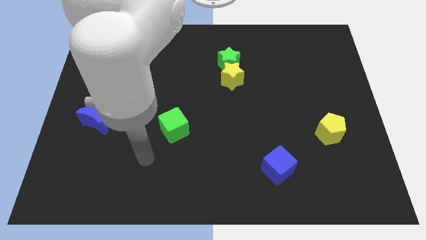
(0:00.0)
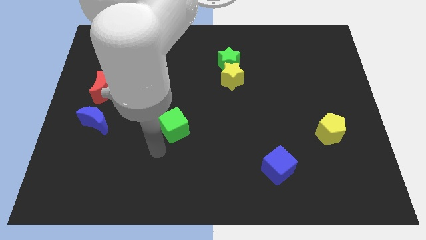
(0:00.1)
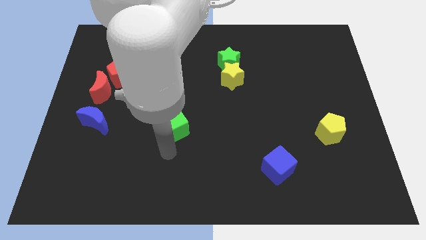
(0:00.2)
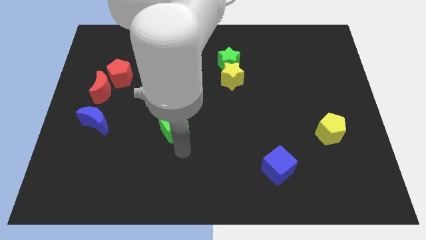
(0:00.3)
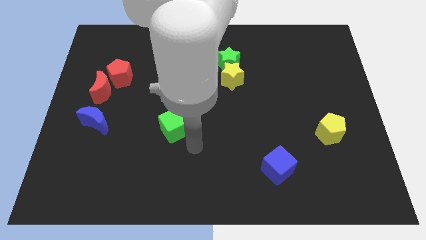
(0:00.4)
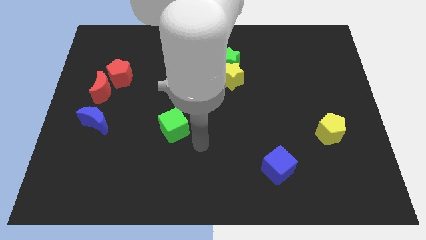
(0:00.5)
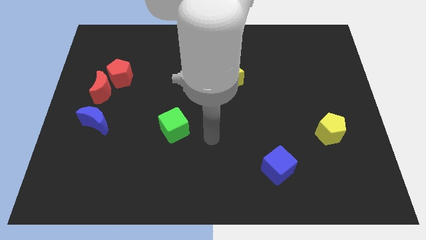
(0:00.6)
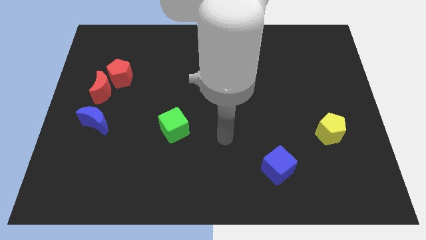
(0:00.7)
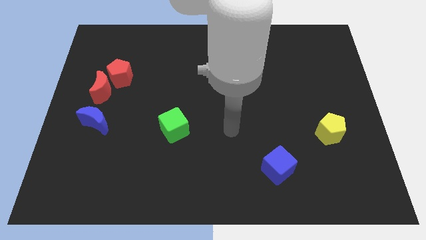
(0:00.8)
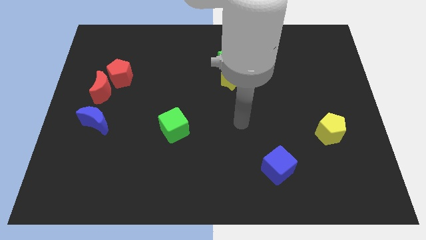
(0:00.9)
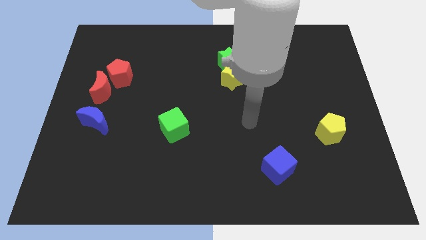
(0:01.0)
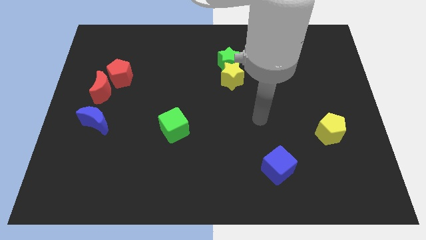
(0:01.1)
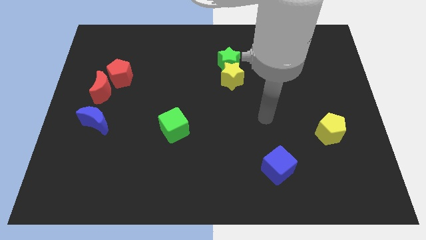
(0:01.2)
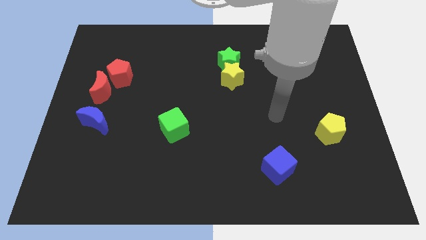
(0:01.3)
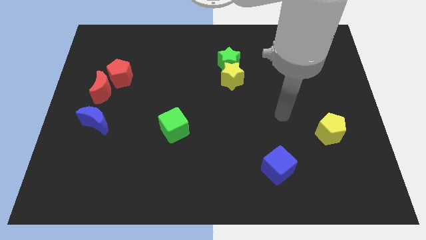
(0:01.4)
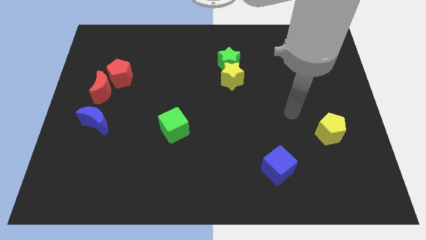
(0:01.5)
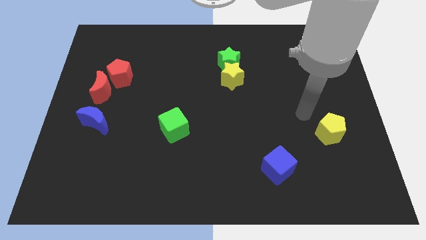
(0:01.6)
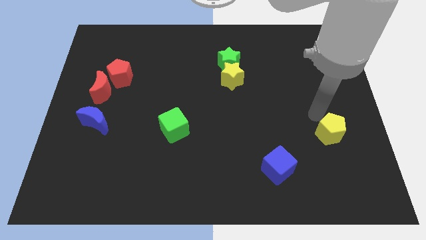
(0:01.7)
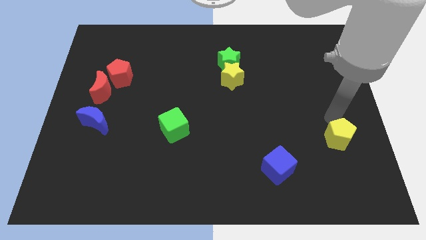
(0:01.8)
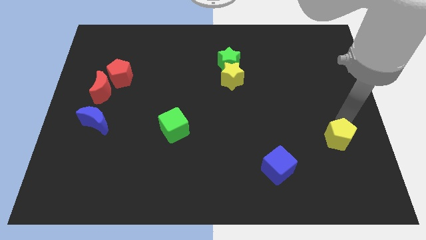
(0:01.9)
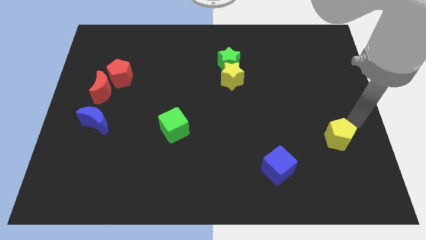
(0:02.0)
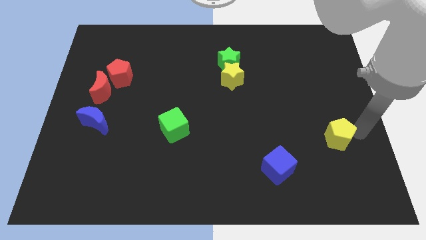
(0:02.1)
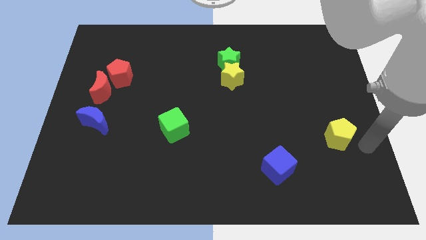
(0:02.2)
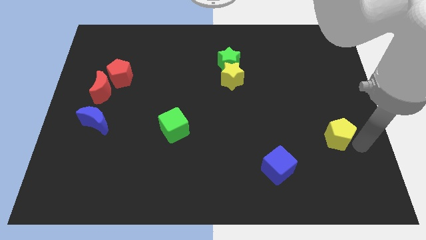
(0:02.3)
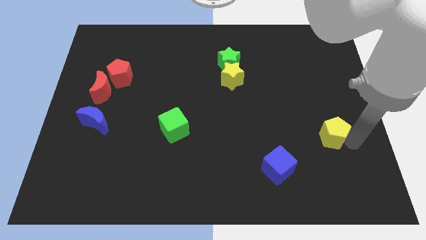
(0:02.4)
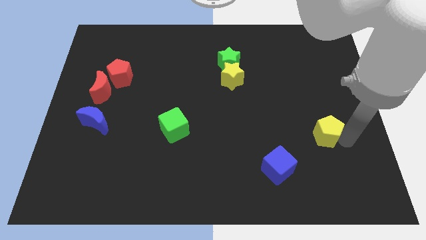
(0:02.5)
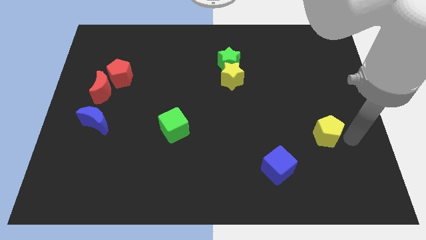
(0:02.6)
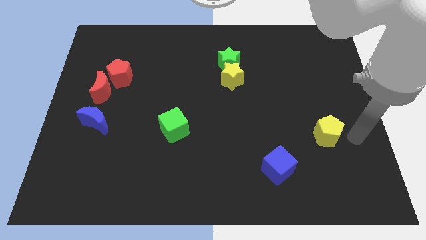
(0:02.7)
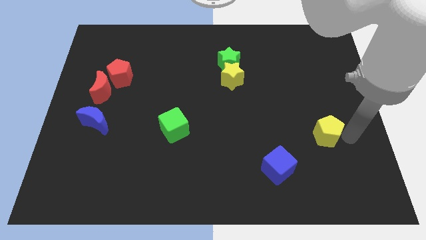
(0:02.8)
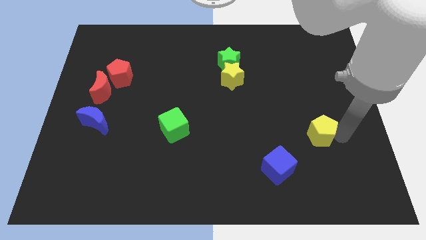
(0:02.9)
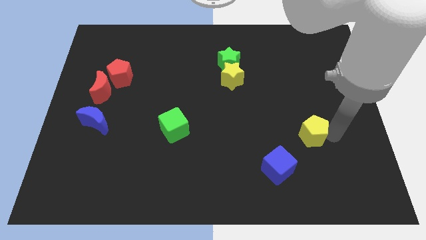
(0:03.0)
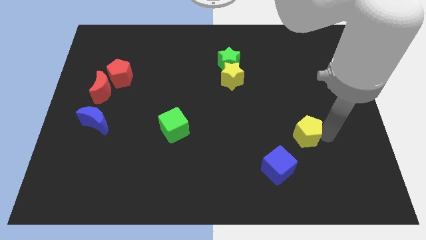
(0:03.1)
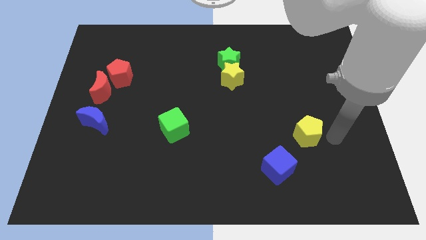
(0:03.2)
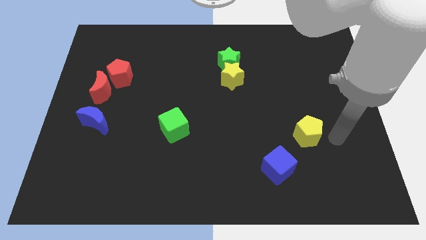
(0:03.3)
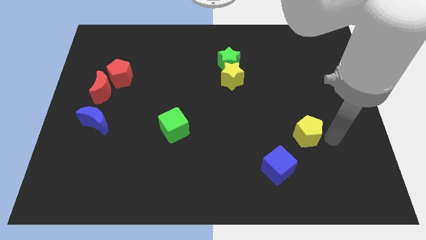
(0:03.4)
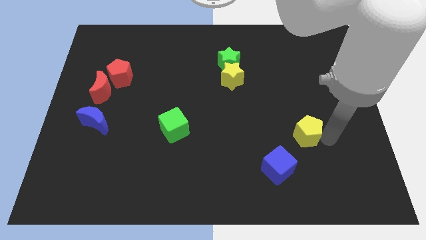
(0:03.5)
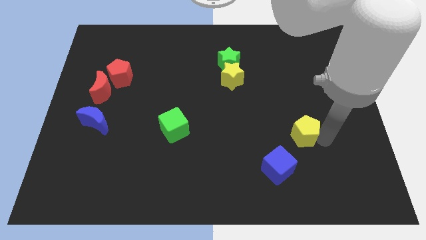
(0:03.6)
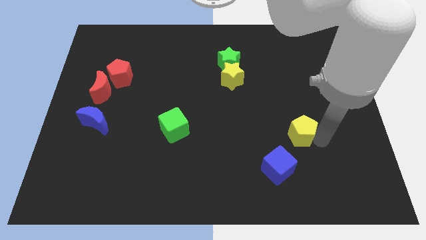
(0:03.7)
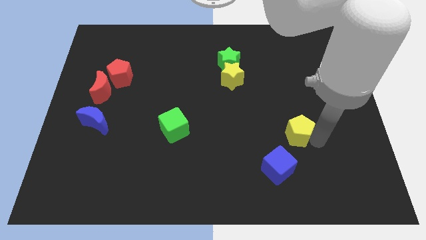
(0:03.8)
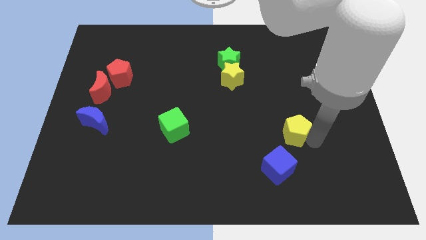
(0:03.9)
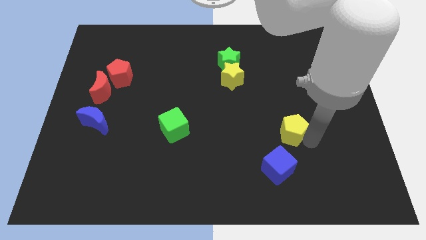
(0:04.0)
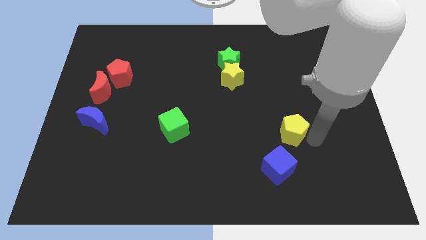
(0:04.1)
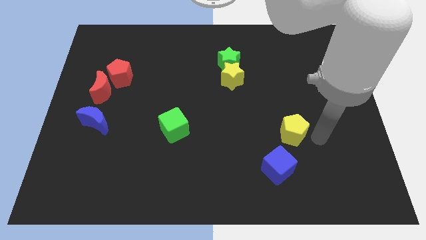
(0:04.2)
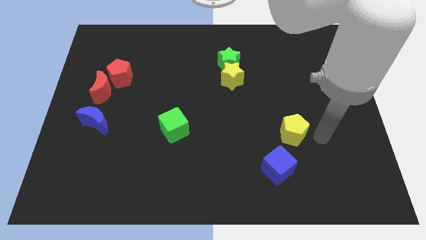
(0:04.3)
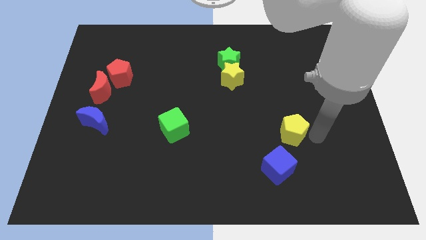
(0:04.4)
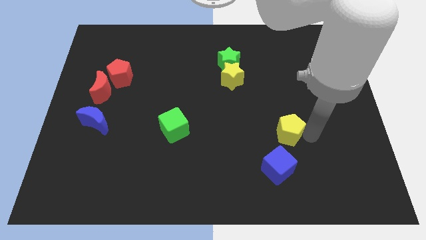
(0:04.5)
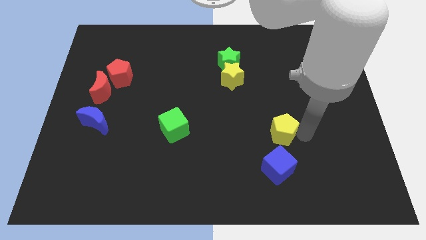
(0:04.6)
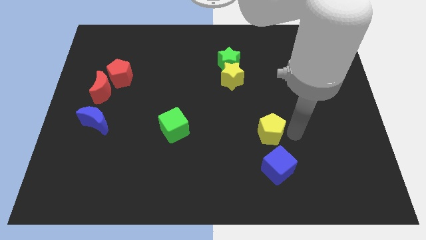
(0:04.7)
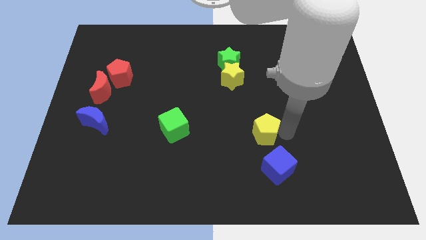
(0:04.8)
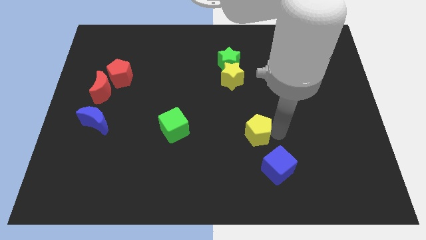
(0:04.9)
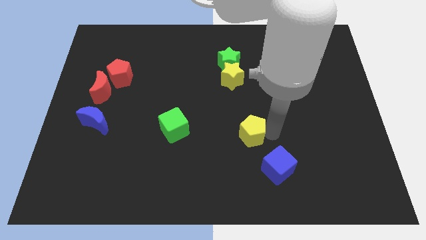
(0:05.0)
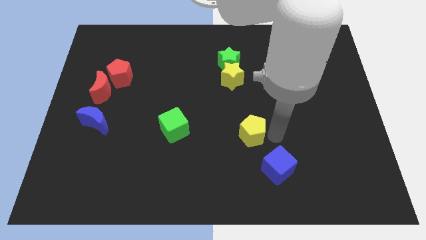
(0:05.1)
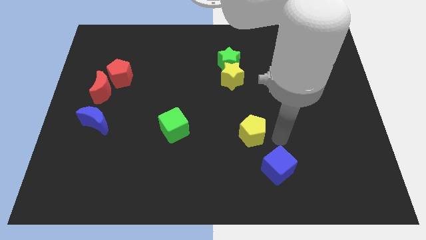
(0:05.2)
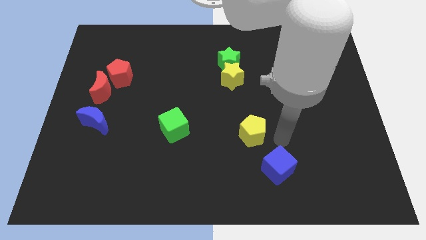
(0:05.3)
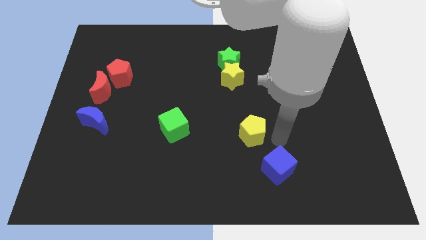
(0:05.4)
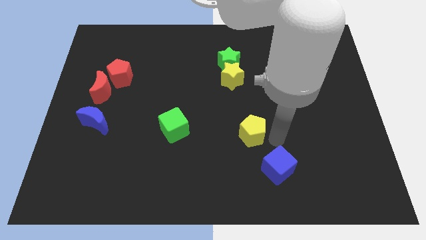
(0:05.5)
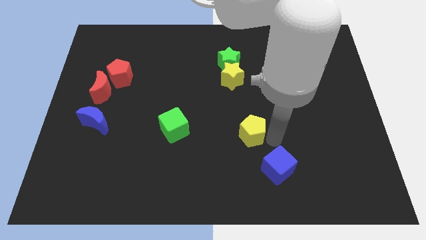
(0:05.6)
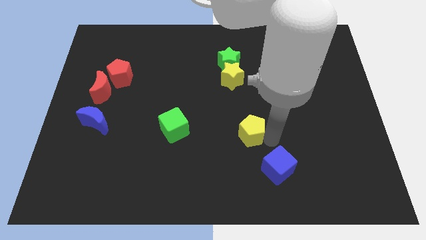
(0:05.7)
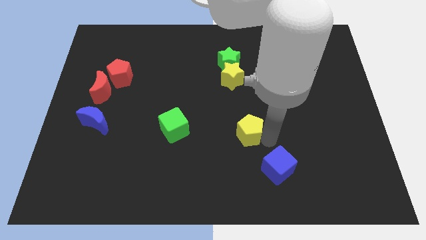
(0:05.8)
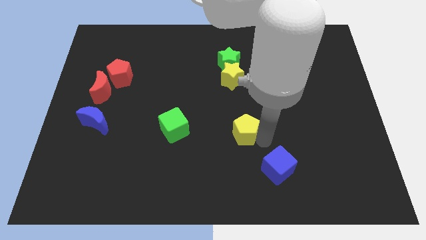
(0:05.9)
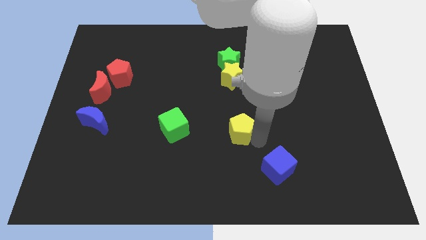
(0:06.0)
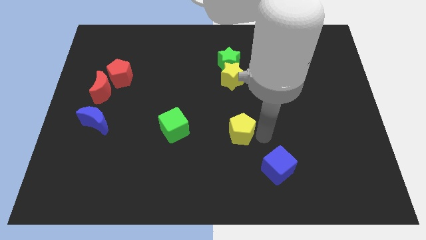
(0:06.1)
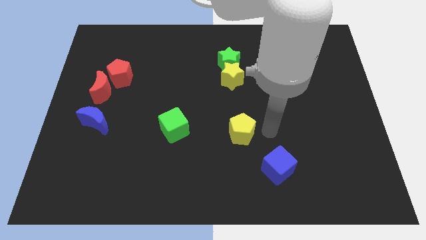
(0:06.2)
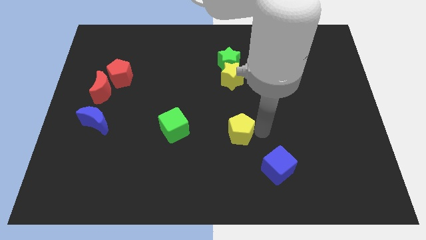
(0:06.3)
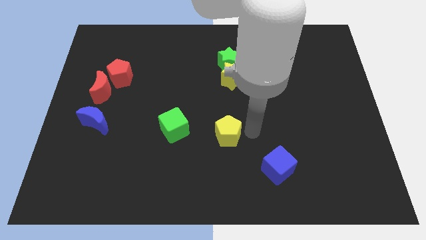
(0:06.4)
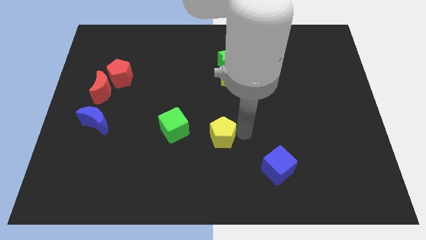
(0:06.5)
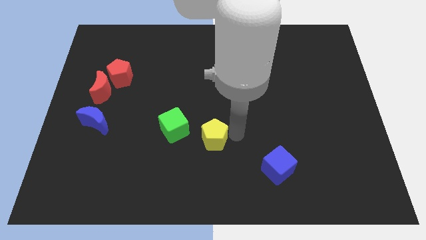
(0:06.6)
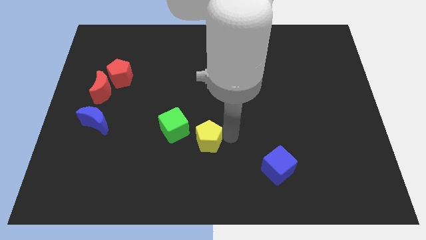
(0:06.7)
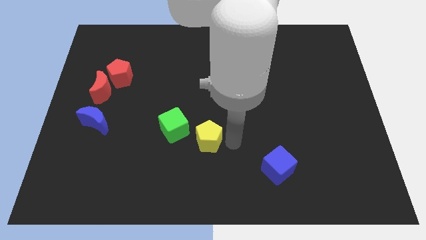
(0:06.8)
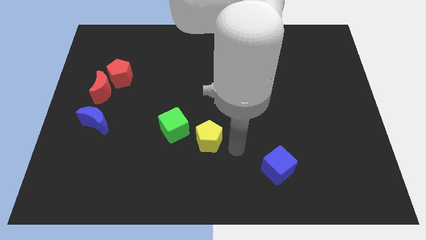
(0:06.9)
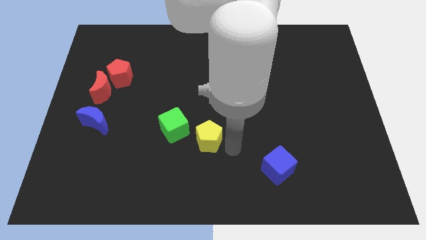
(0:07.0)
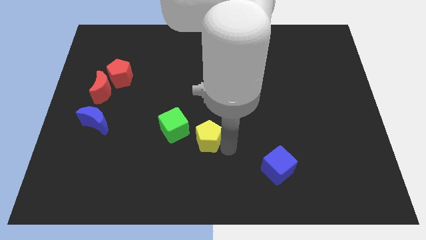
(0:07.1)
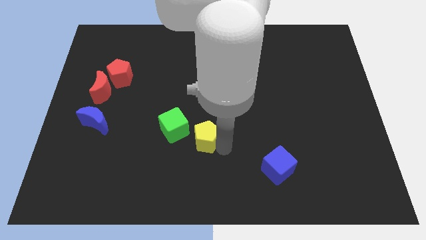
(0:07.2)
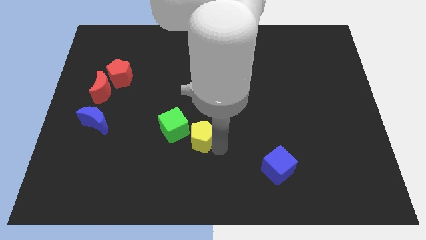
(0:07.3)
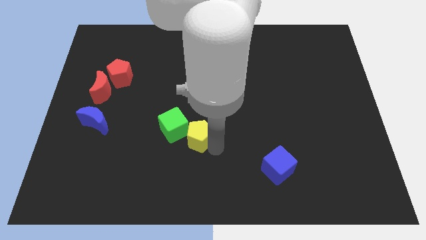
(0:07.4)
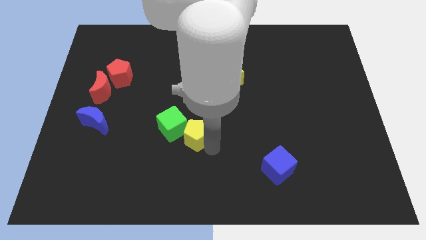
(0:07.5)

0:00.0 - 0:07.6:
move the yellow pentagon to the green cube
